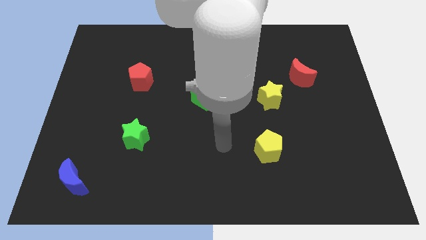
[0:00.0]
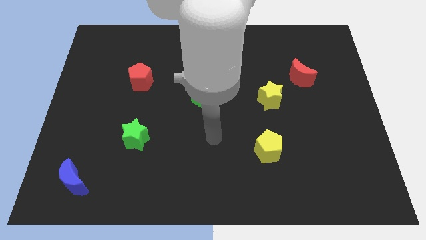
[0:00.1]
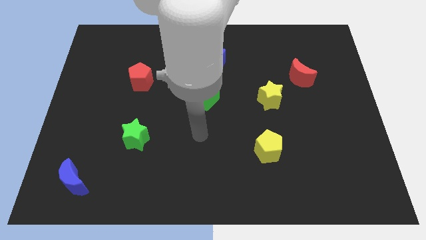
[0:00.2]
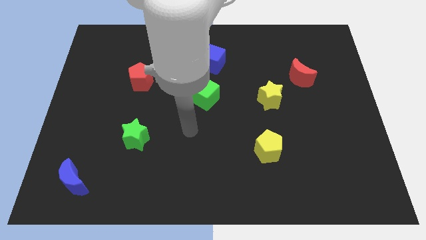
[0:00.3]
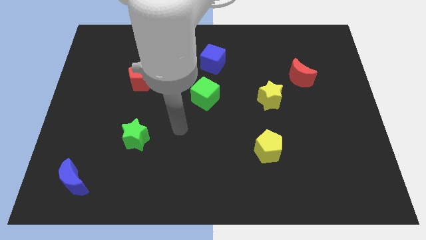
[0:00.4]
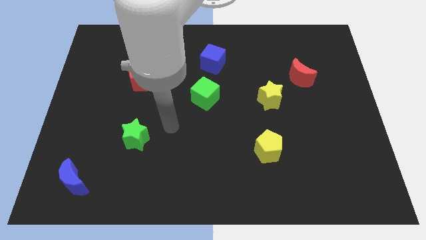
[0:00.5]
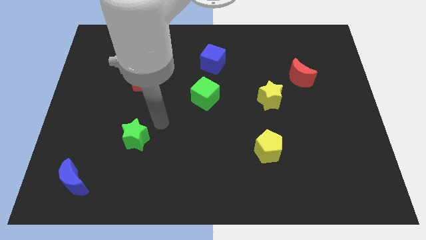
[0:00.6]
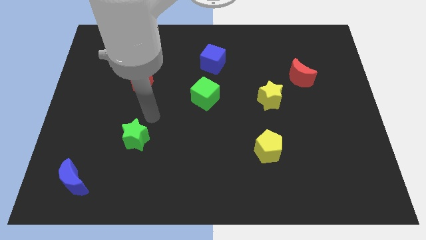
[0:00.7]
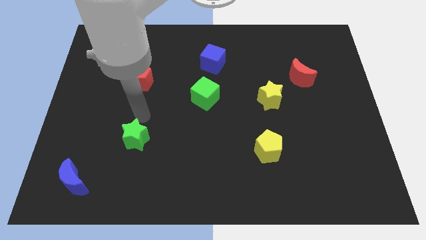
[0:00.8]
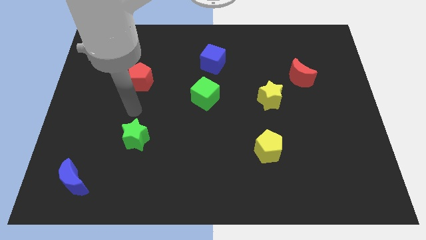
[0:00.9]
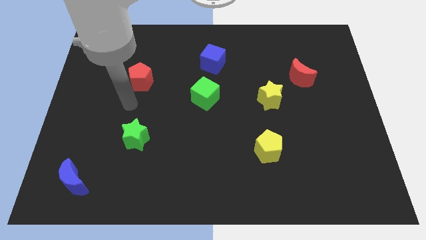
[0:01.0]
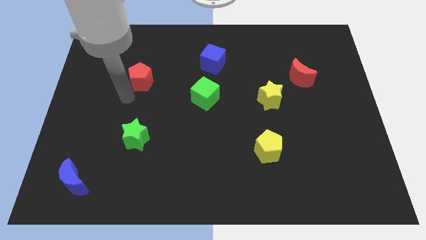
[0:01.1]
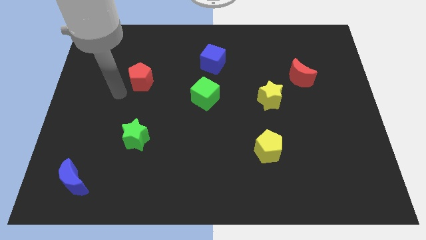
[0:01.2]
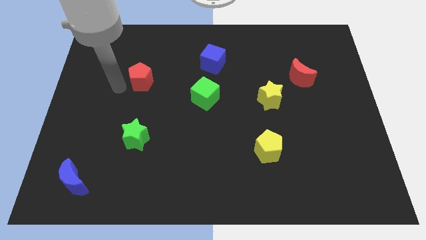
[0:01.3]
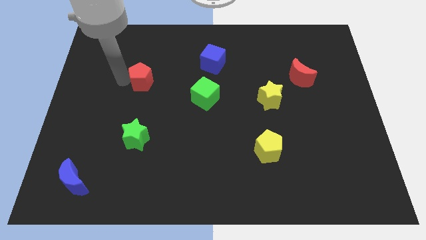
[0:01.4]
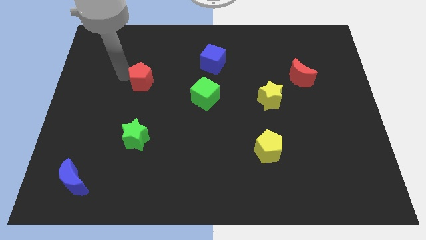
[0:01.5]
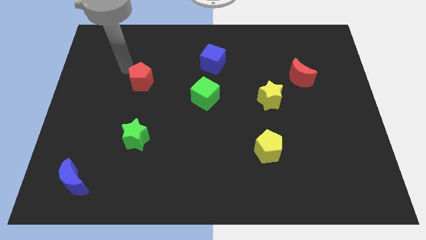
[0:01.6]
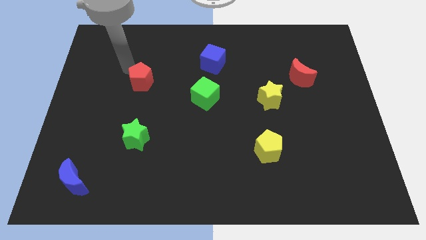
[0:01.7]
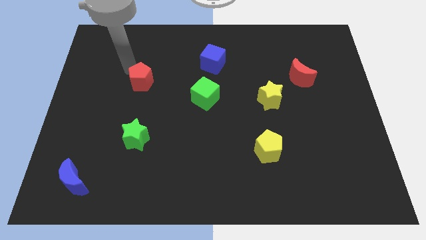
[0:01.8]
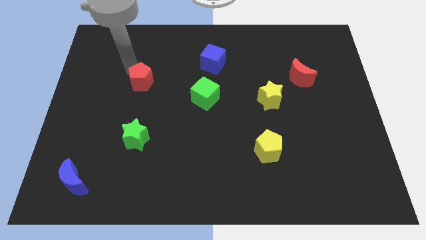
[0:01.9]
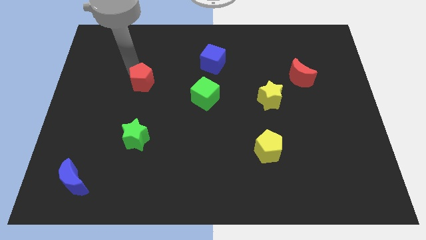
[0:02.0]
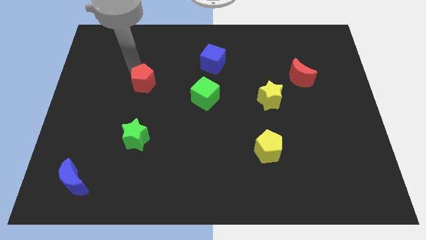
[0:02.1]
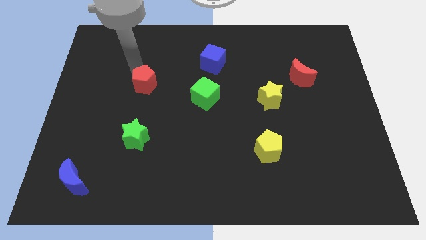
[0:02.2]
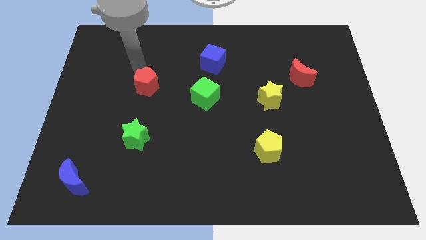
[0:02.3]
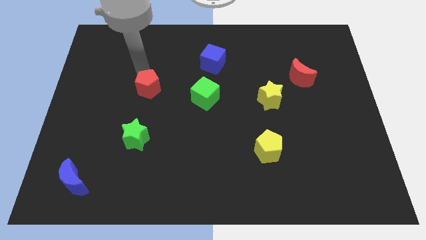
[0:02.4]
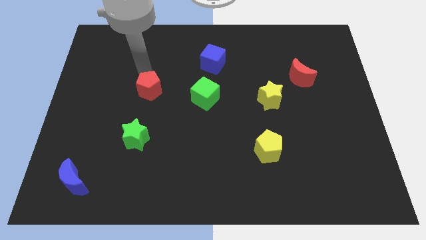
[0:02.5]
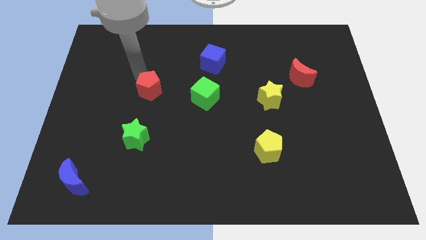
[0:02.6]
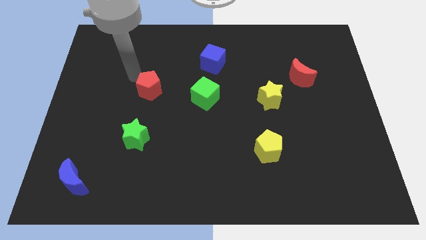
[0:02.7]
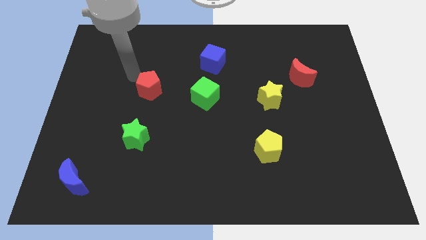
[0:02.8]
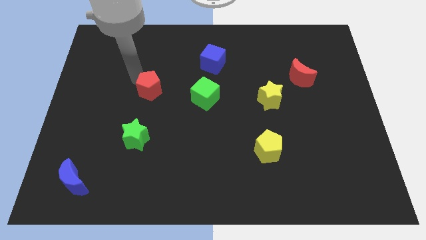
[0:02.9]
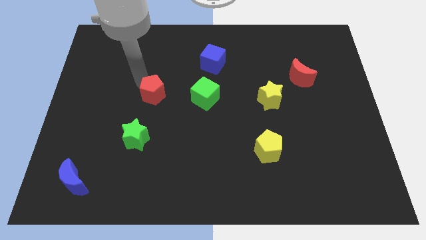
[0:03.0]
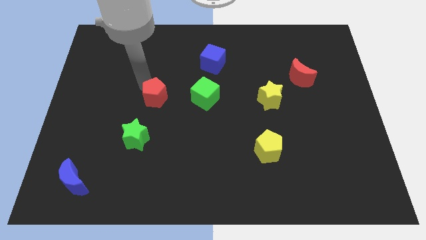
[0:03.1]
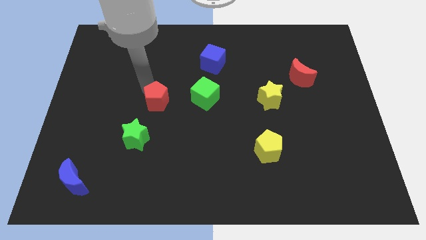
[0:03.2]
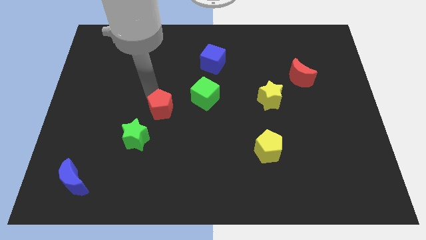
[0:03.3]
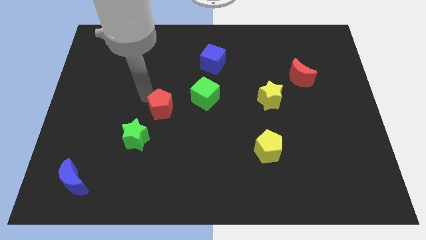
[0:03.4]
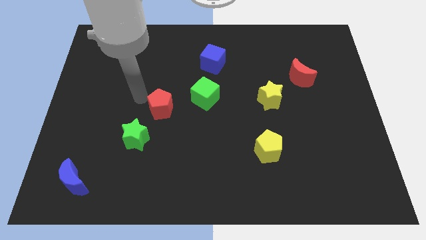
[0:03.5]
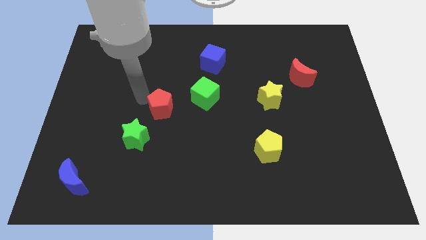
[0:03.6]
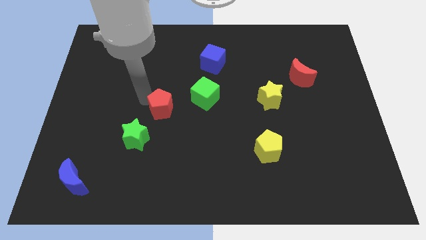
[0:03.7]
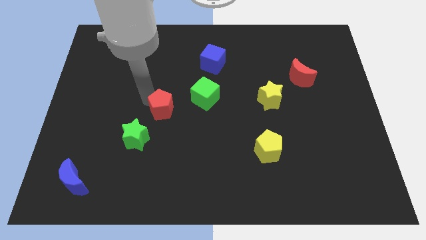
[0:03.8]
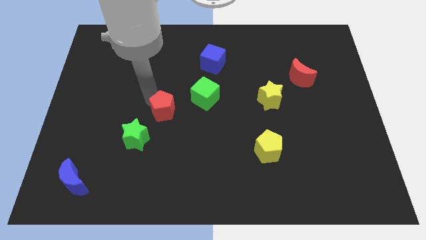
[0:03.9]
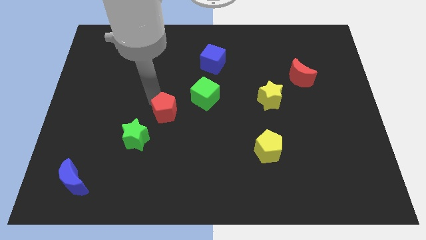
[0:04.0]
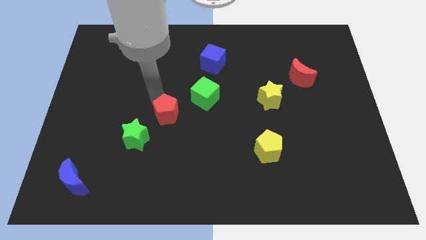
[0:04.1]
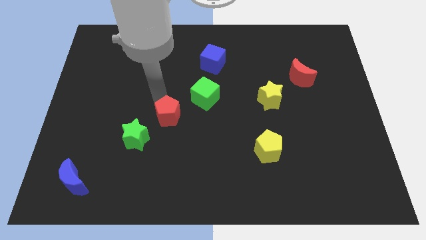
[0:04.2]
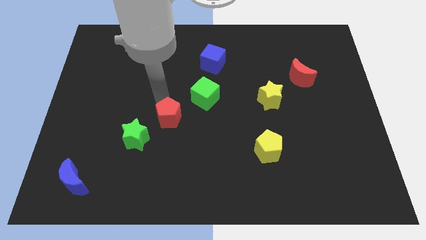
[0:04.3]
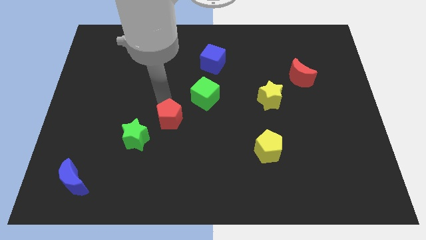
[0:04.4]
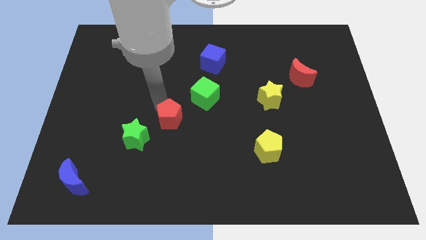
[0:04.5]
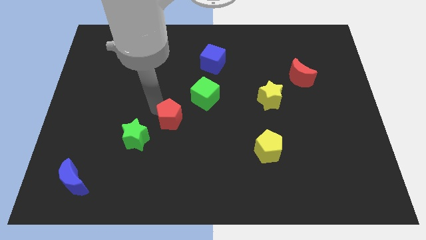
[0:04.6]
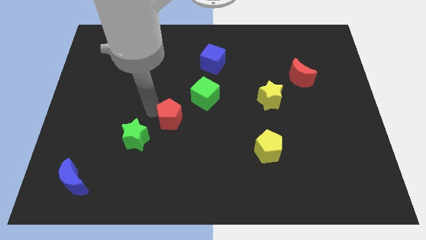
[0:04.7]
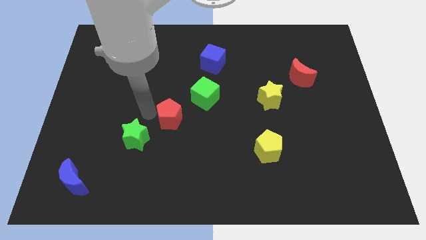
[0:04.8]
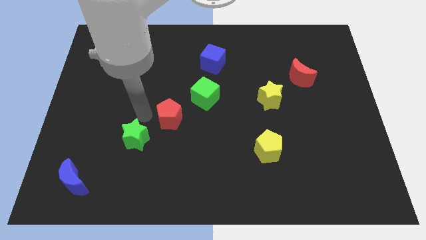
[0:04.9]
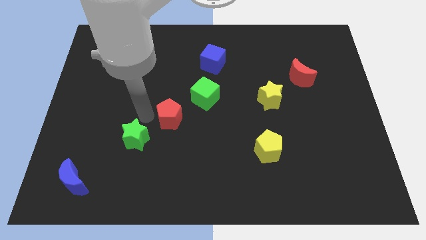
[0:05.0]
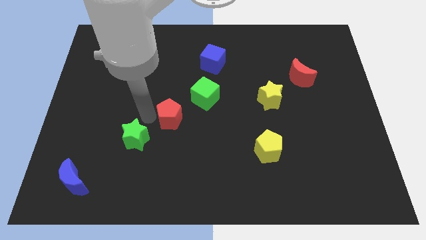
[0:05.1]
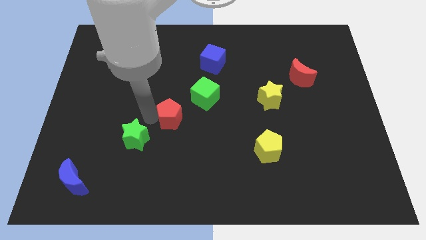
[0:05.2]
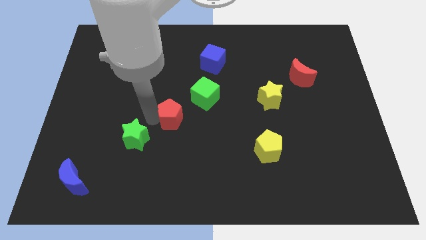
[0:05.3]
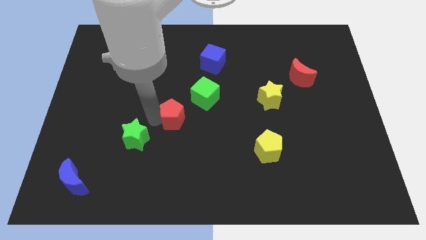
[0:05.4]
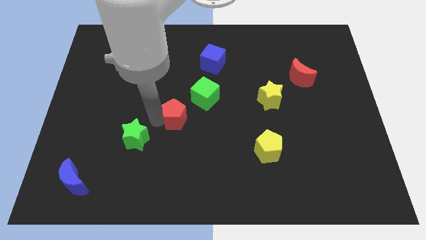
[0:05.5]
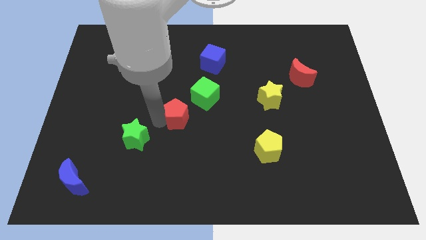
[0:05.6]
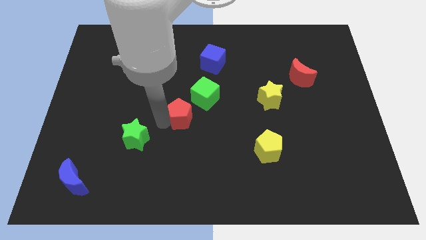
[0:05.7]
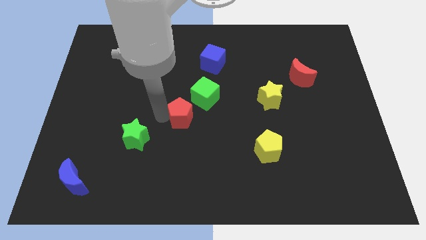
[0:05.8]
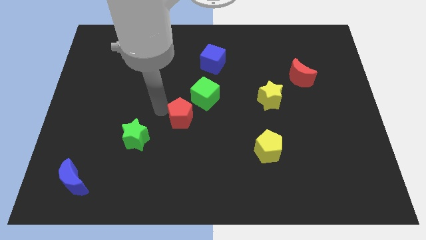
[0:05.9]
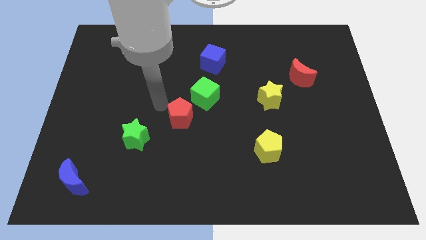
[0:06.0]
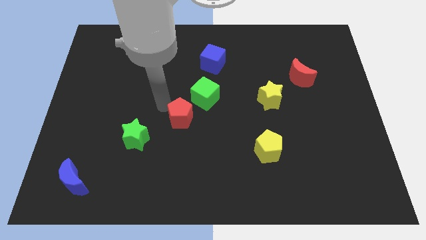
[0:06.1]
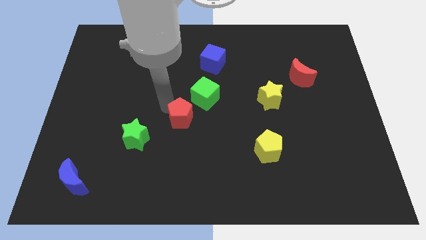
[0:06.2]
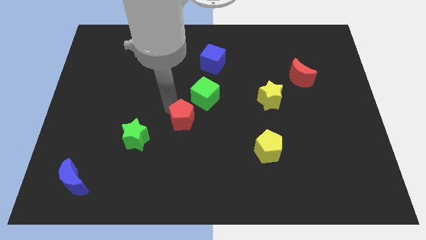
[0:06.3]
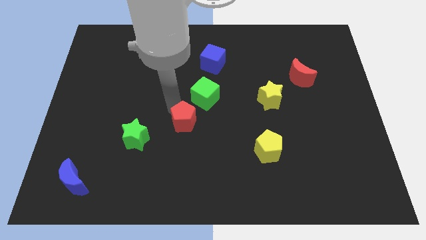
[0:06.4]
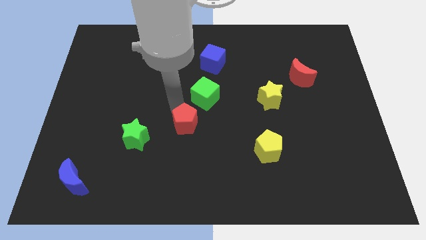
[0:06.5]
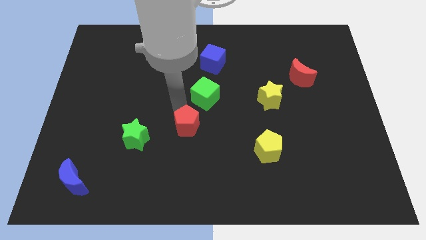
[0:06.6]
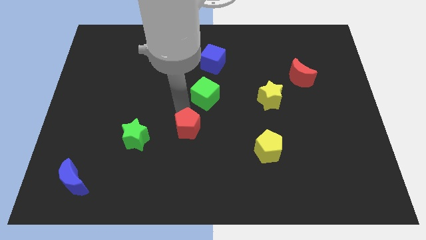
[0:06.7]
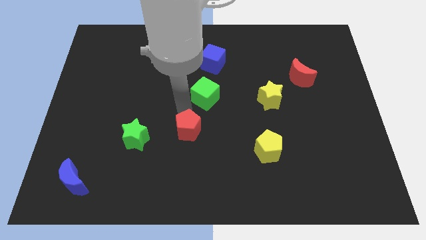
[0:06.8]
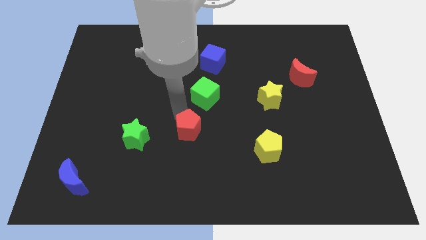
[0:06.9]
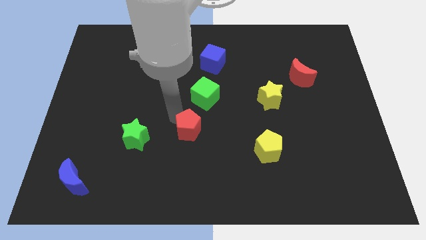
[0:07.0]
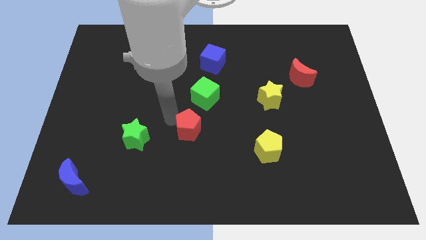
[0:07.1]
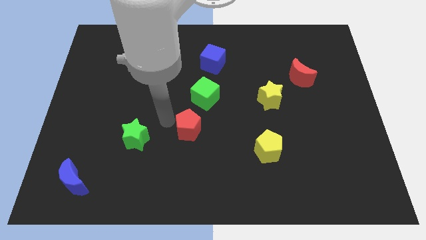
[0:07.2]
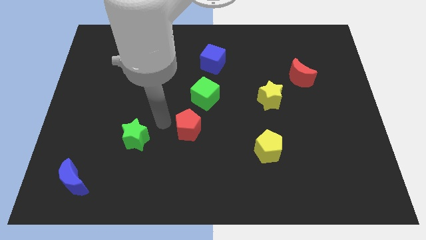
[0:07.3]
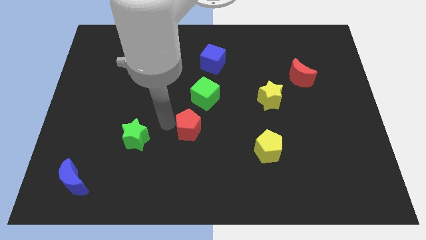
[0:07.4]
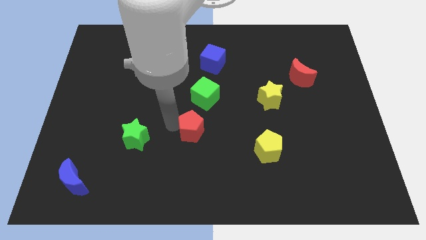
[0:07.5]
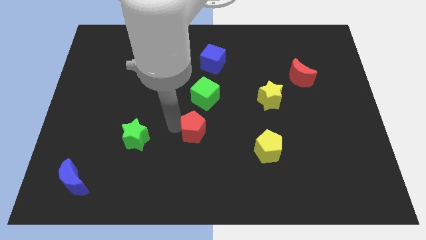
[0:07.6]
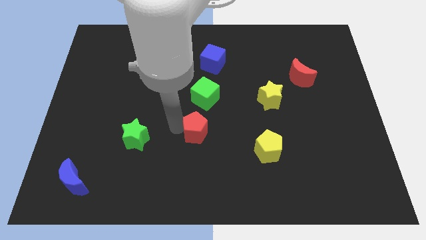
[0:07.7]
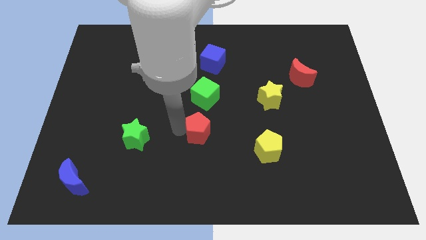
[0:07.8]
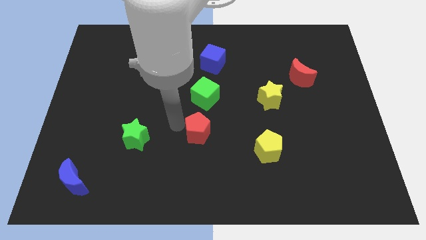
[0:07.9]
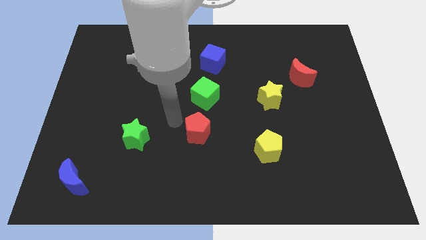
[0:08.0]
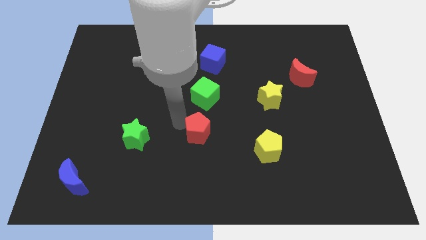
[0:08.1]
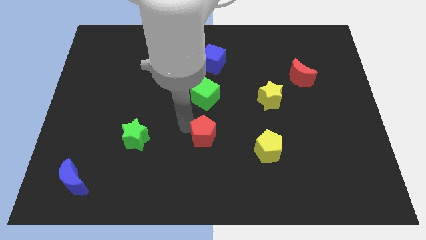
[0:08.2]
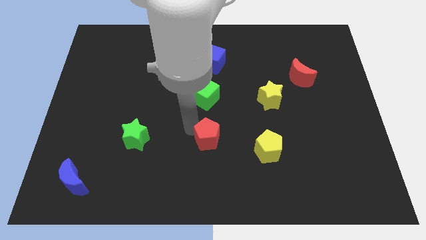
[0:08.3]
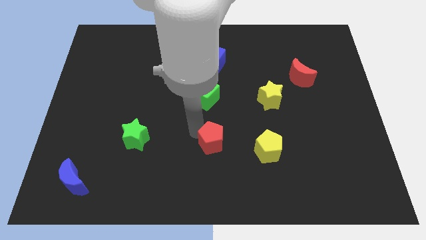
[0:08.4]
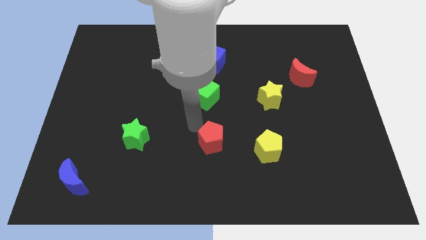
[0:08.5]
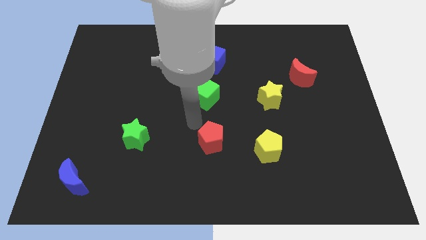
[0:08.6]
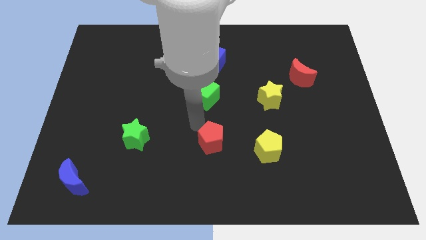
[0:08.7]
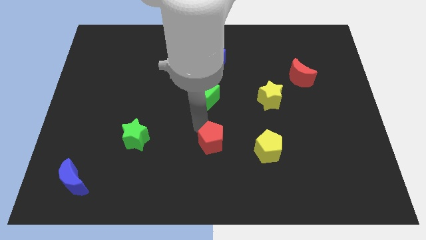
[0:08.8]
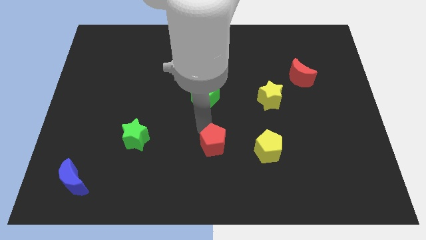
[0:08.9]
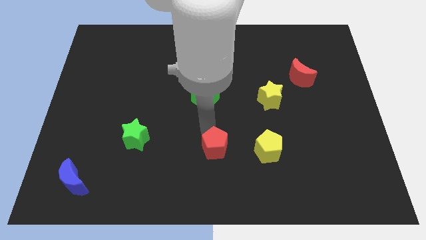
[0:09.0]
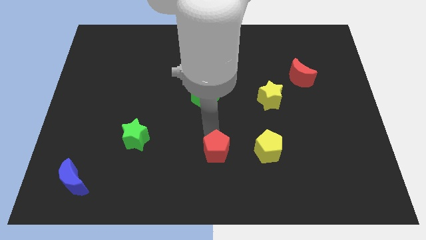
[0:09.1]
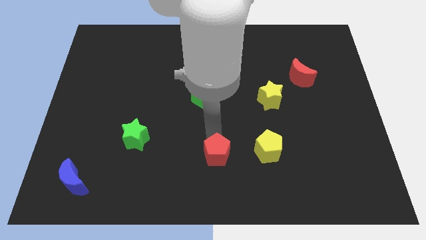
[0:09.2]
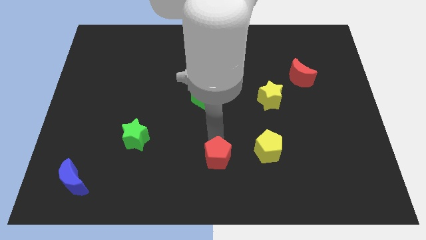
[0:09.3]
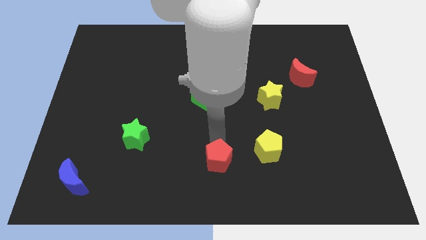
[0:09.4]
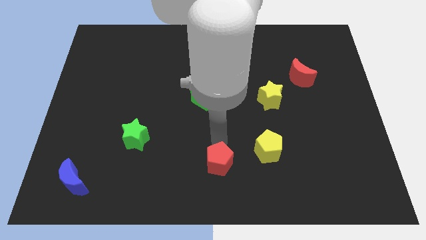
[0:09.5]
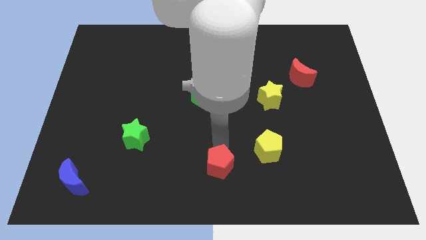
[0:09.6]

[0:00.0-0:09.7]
push the red pentagon to the bottom left of the yellow pentagon
